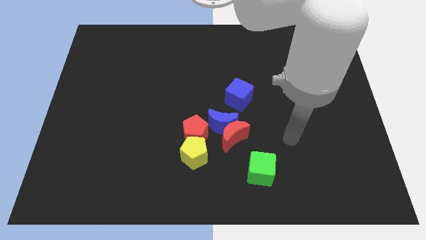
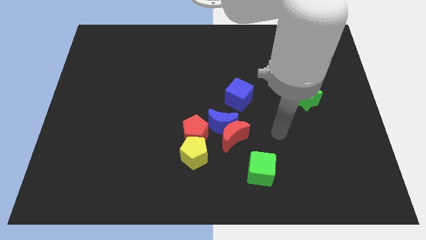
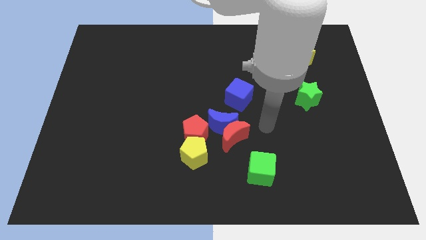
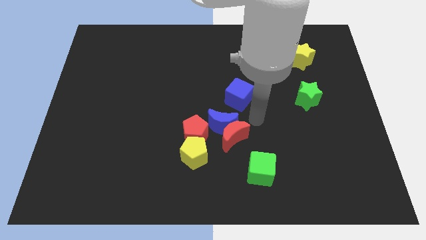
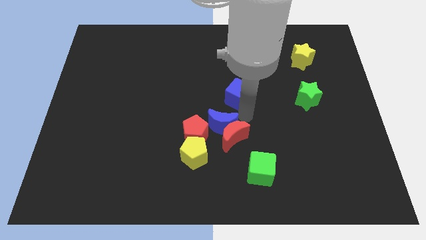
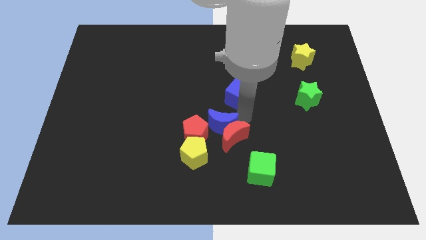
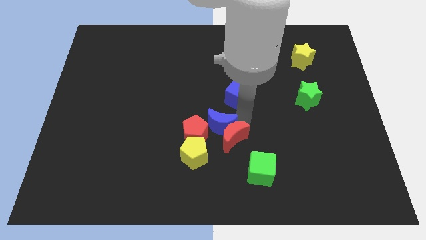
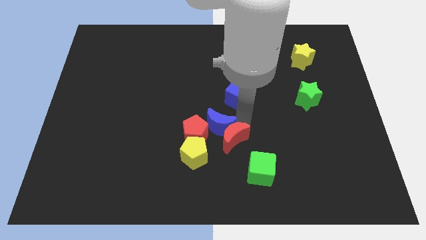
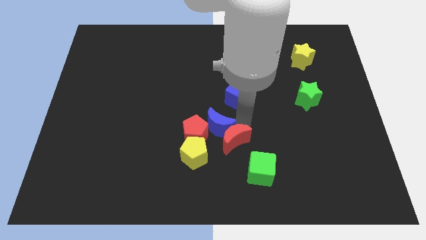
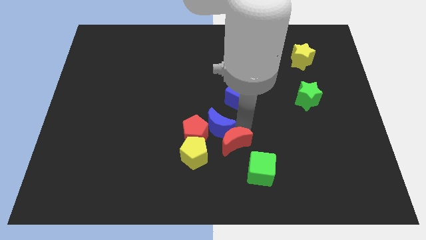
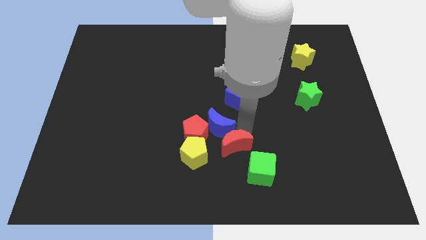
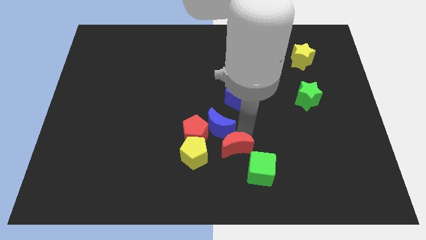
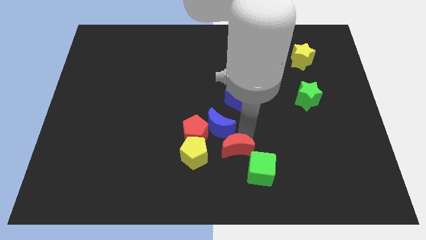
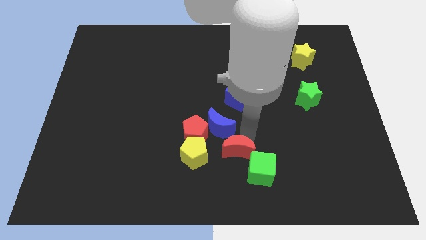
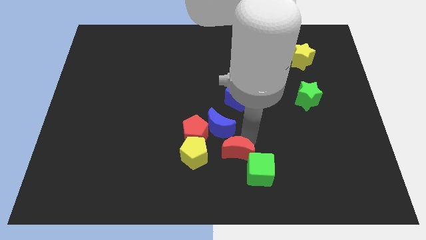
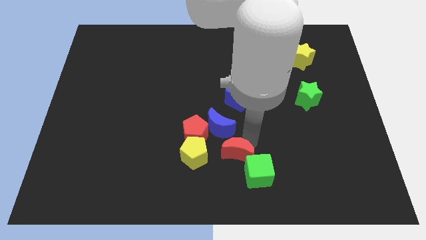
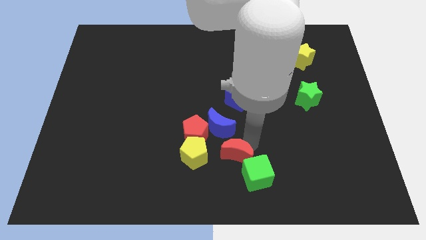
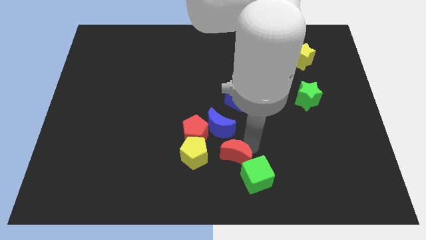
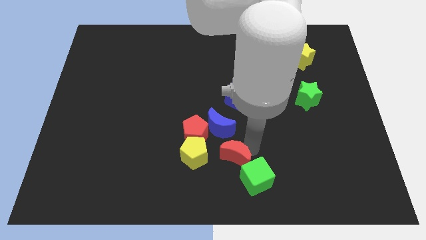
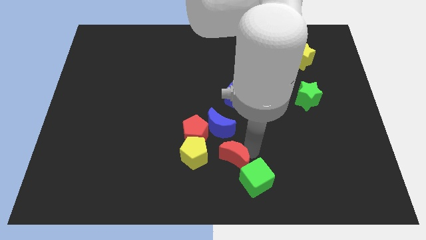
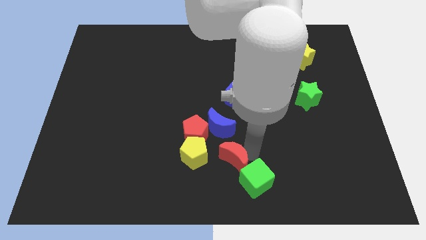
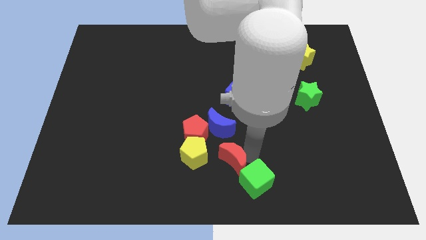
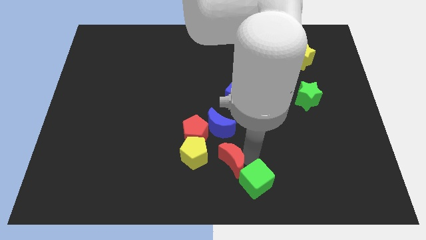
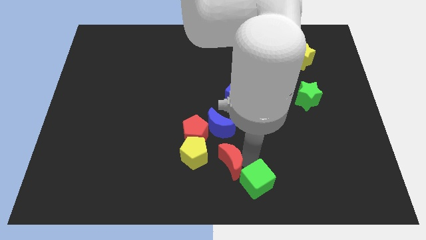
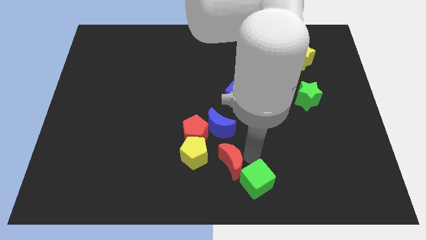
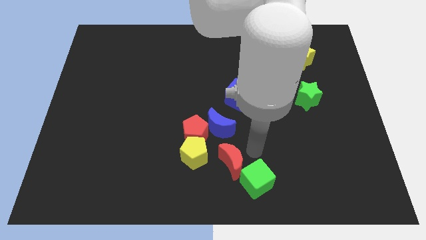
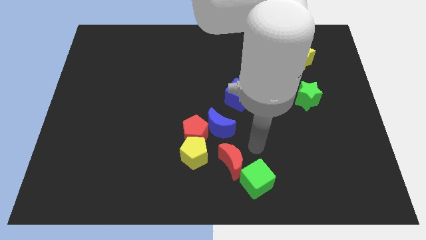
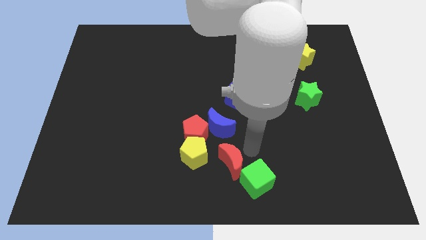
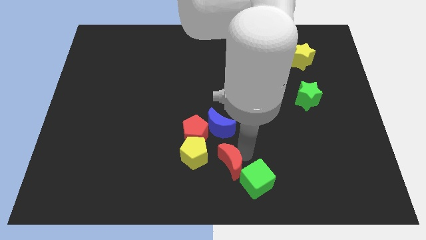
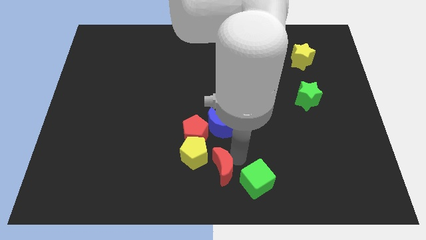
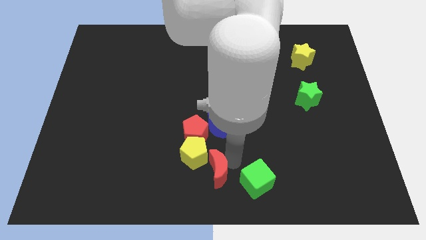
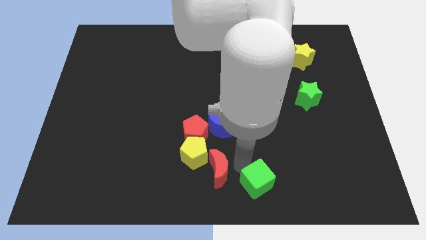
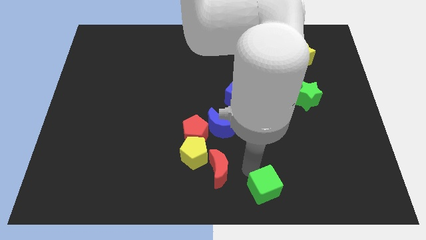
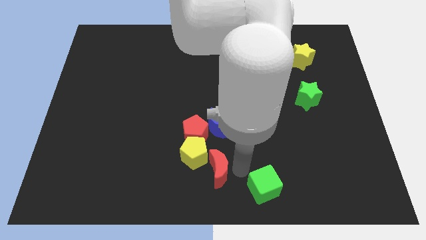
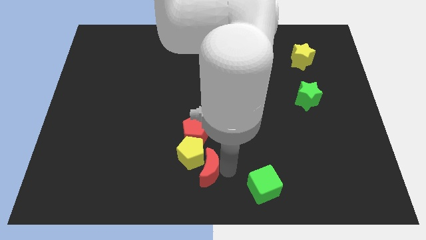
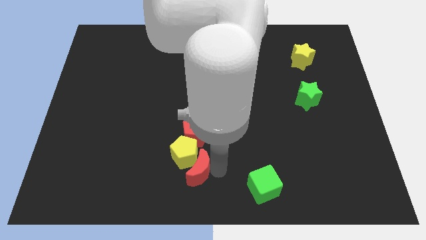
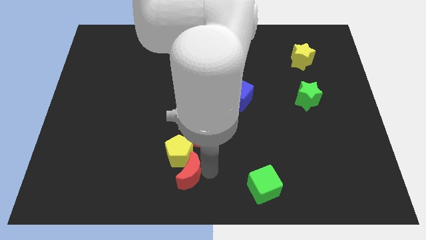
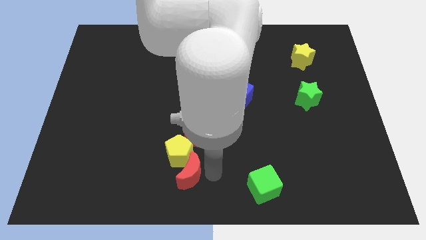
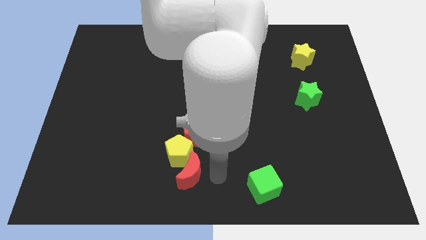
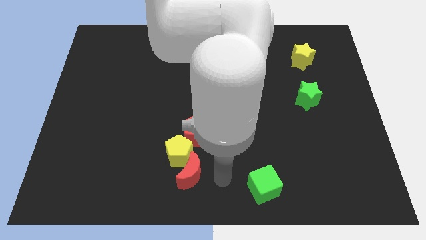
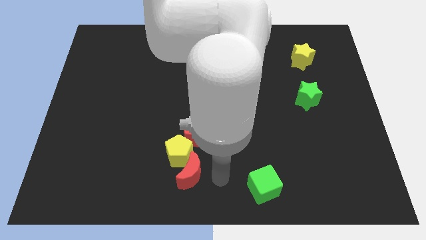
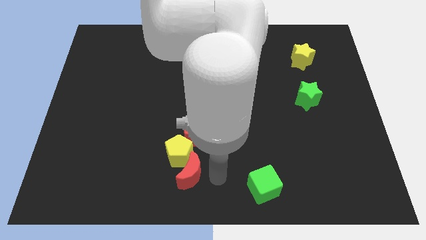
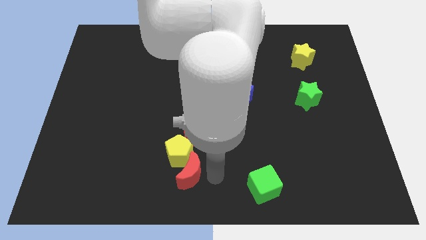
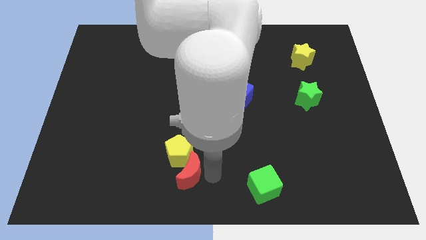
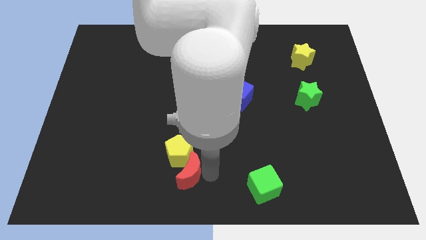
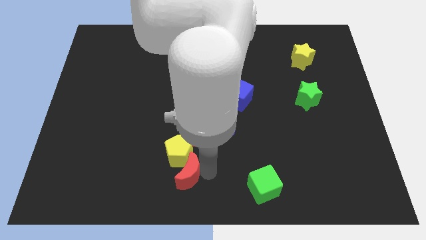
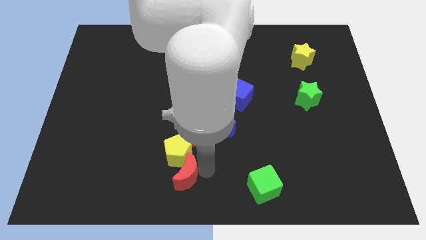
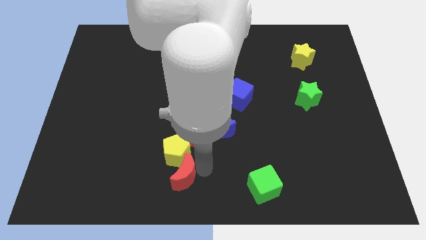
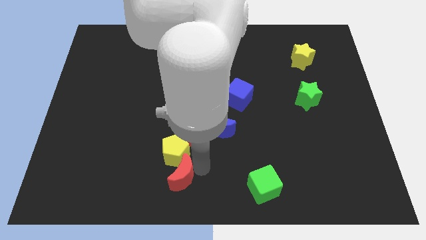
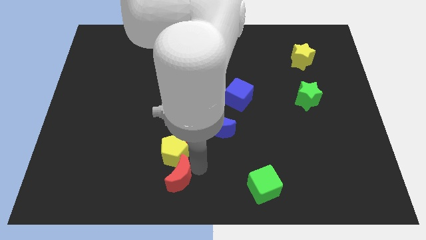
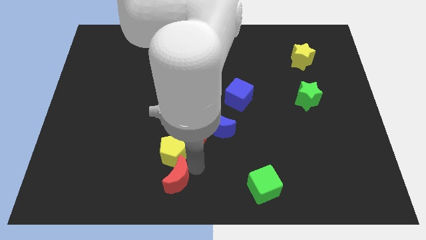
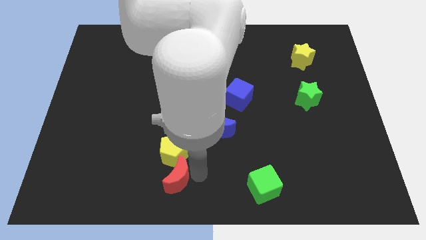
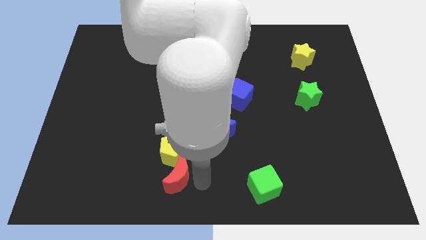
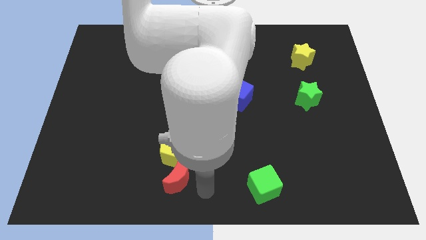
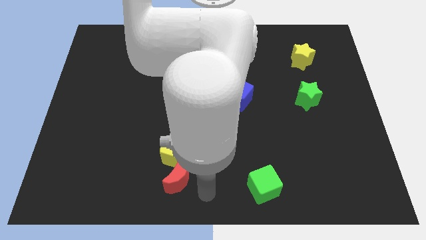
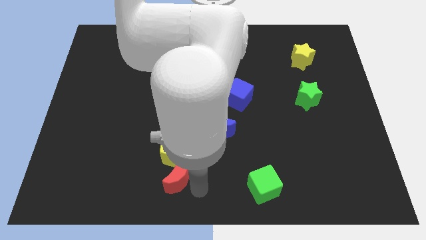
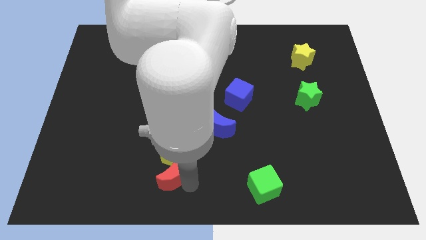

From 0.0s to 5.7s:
slide the red moon somewhat to the left

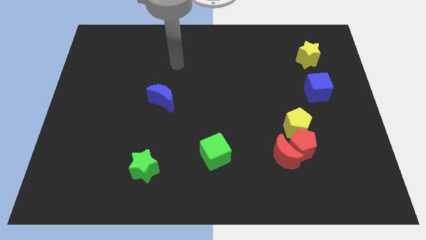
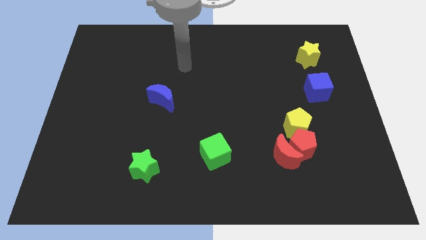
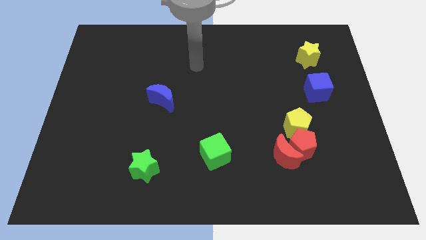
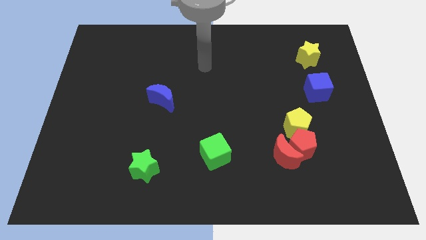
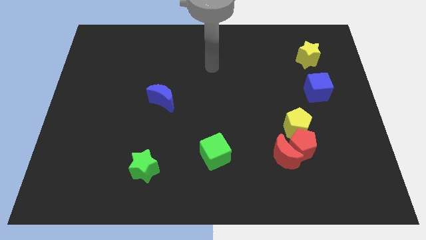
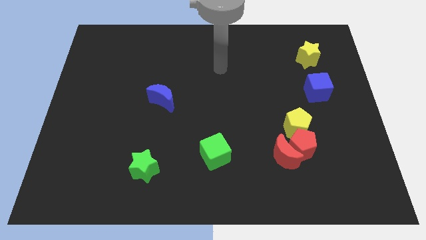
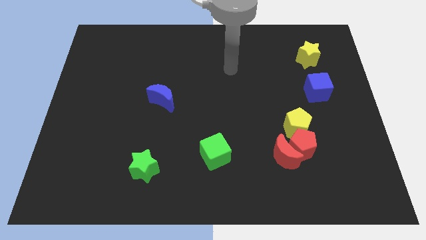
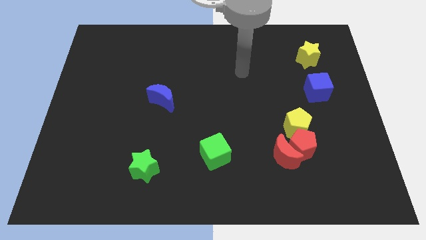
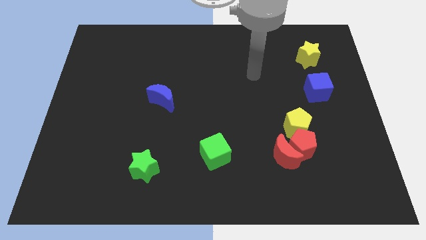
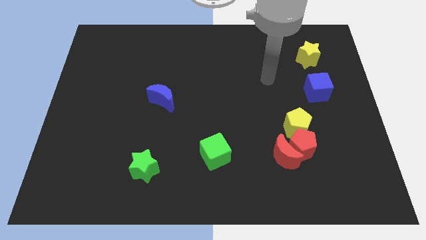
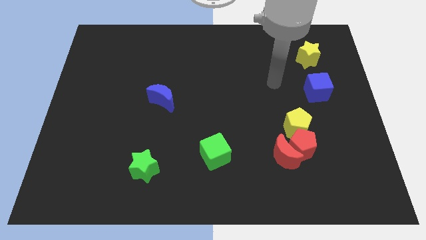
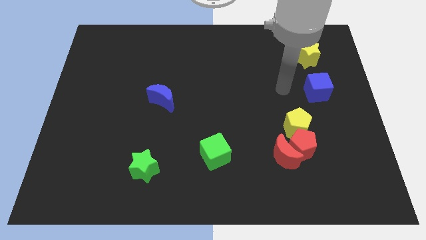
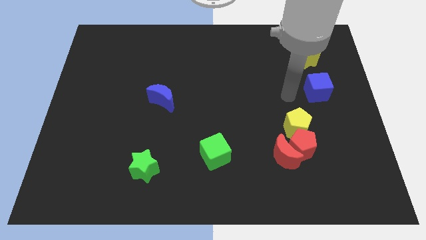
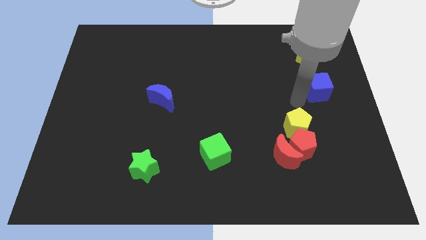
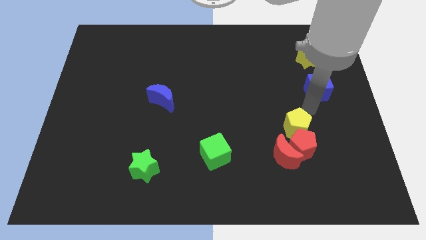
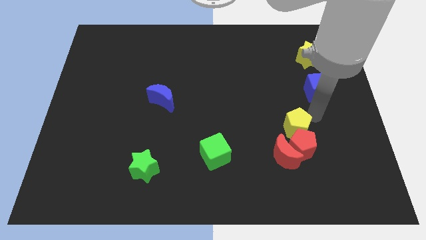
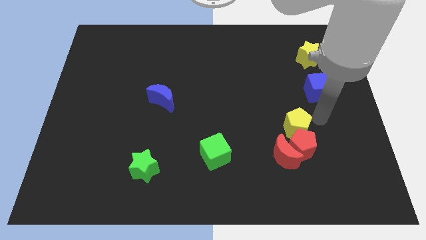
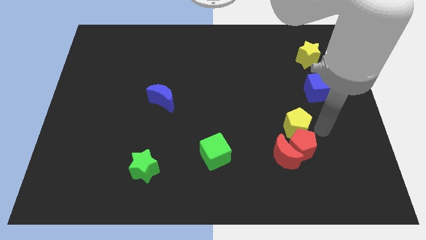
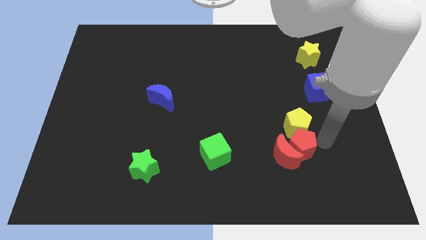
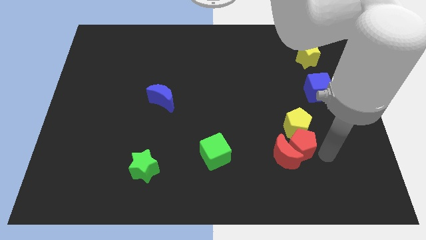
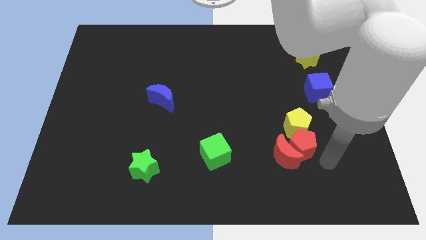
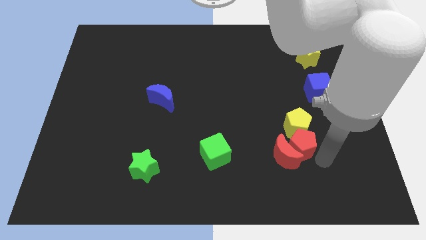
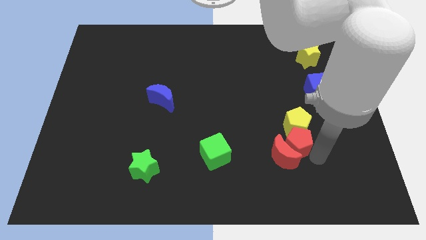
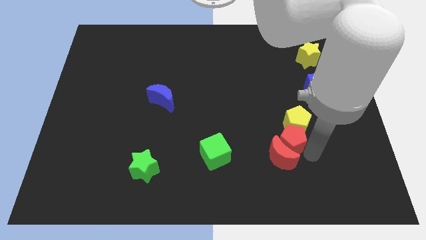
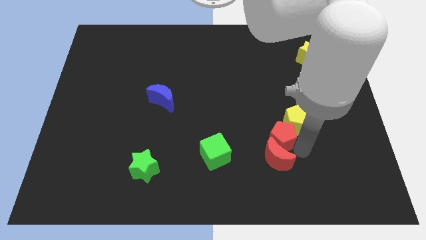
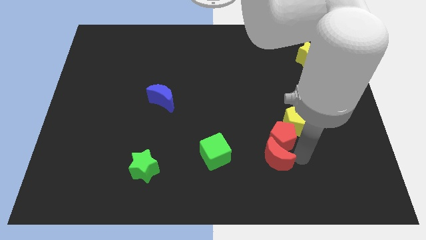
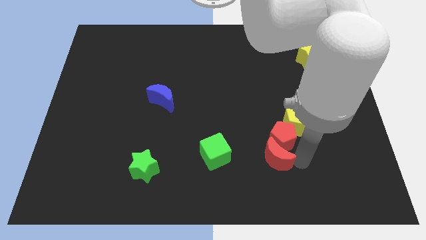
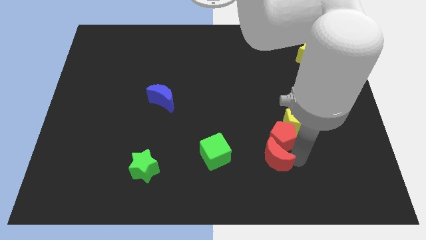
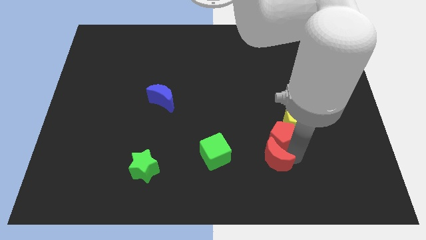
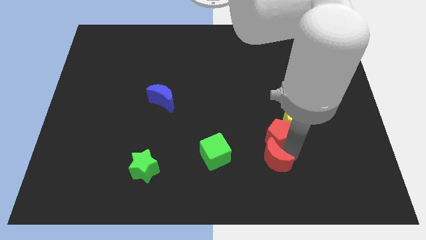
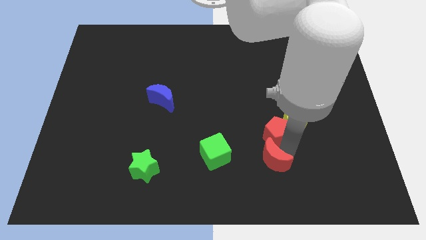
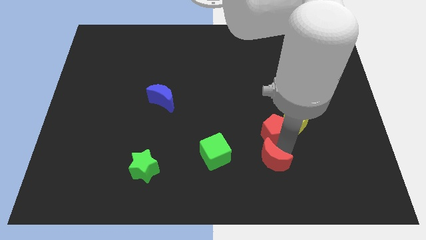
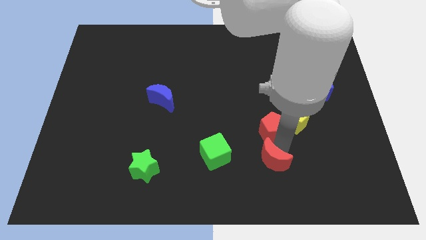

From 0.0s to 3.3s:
slide the red pentagon up and left diagonally a bit
